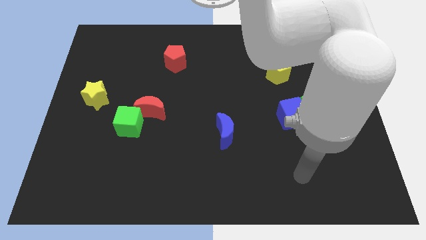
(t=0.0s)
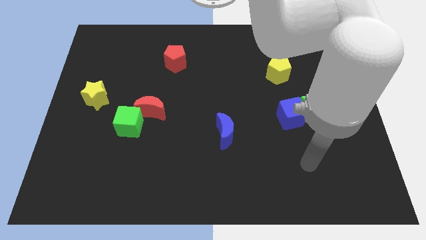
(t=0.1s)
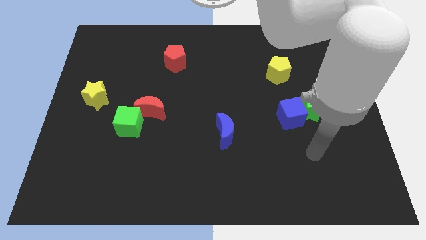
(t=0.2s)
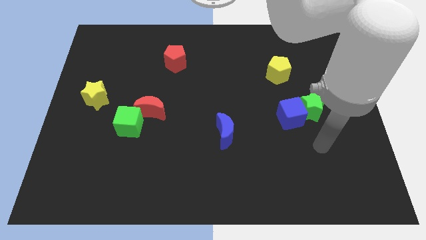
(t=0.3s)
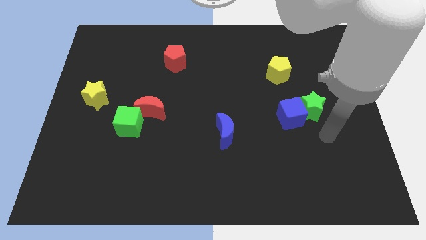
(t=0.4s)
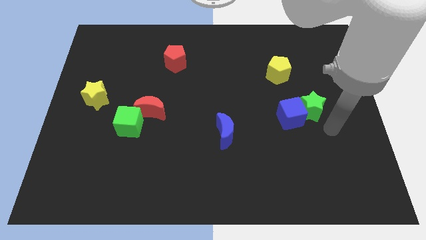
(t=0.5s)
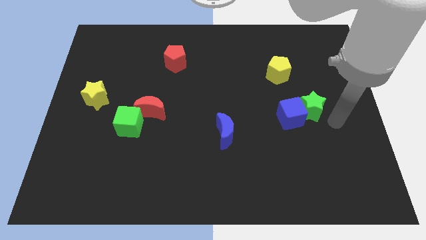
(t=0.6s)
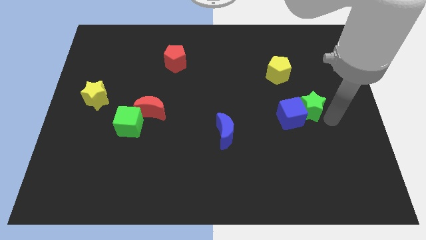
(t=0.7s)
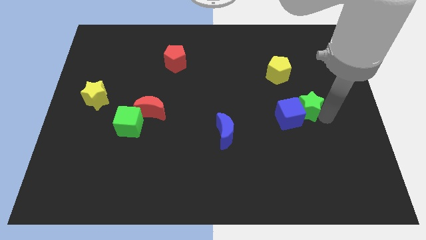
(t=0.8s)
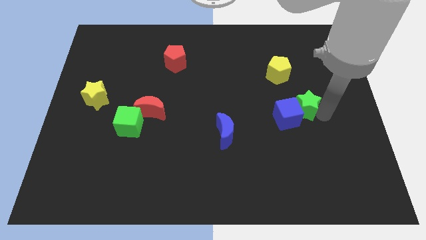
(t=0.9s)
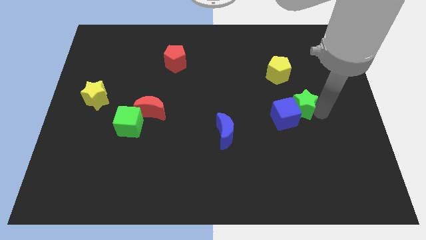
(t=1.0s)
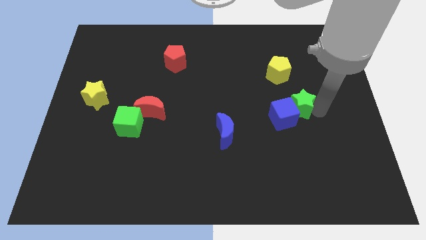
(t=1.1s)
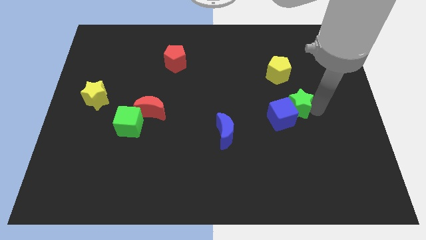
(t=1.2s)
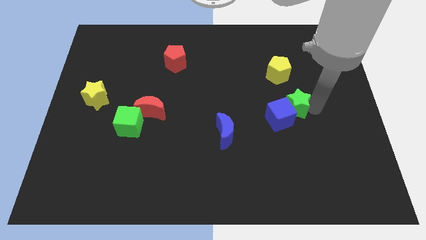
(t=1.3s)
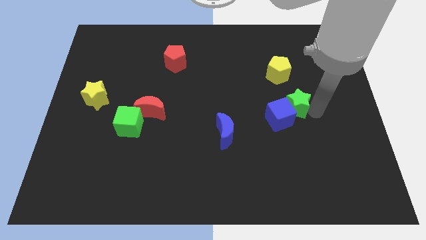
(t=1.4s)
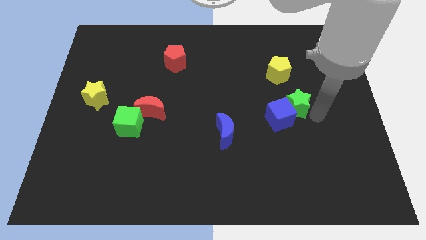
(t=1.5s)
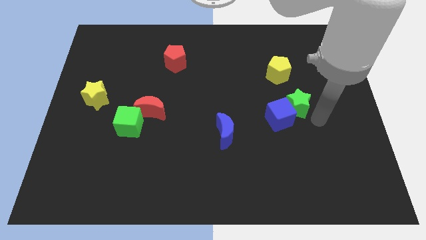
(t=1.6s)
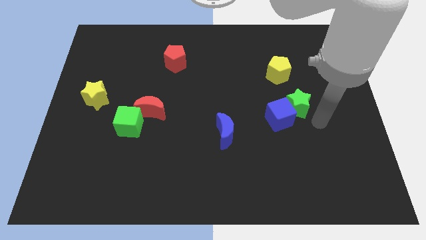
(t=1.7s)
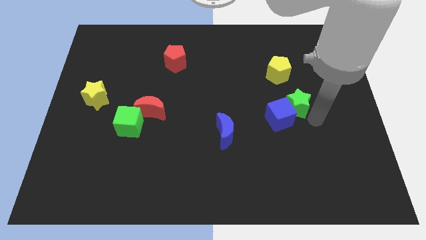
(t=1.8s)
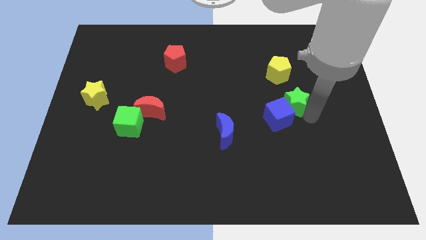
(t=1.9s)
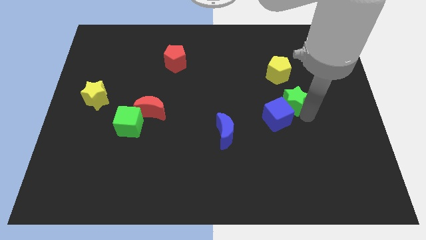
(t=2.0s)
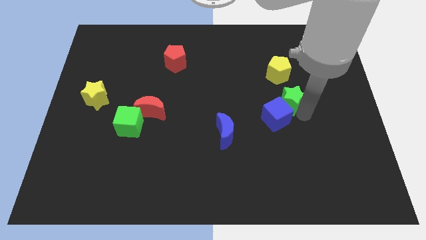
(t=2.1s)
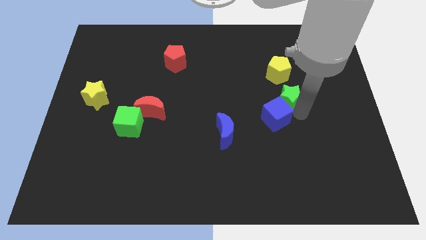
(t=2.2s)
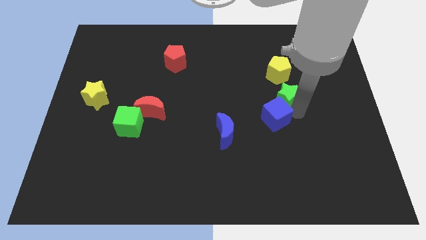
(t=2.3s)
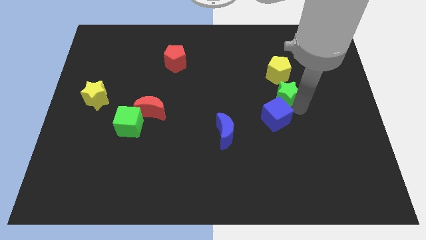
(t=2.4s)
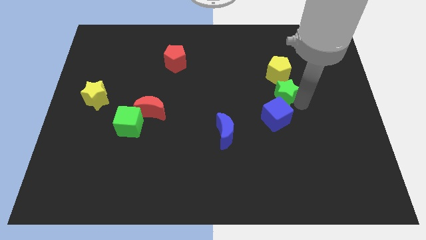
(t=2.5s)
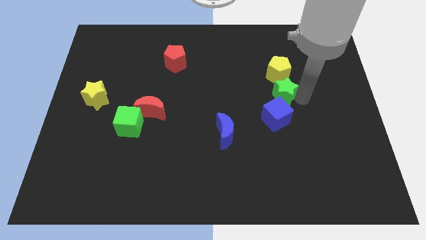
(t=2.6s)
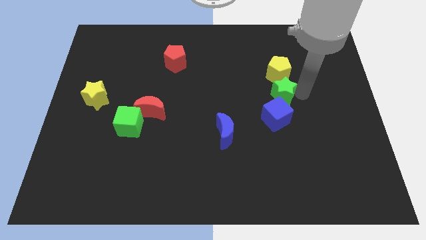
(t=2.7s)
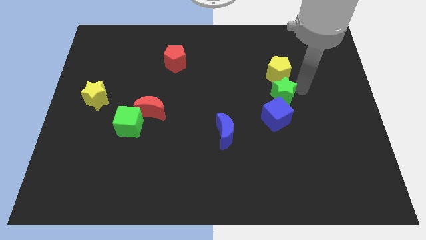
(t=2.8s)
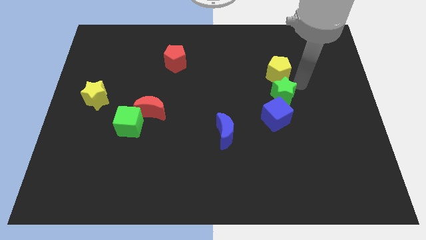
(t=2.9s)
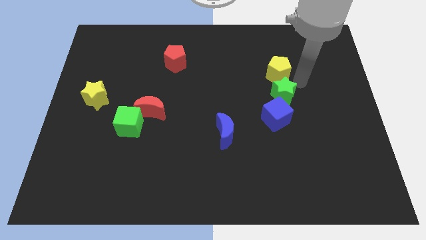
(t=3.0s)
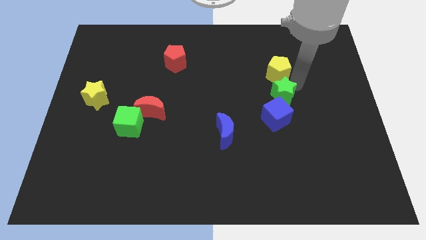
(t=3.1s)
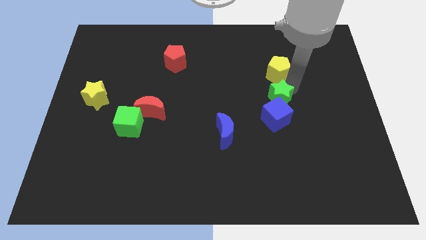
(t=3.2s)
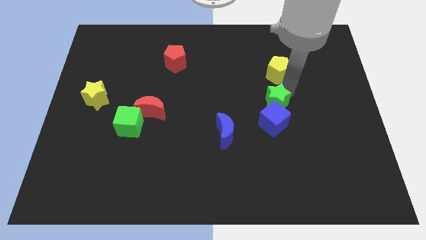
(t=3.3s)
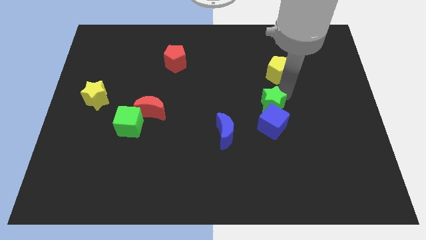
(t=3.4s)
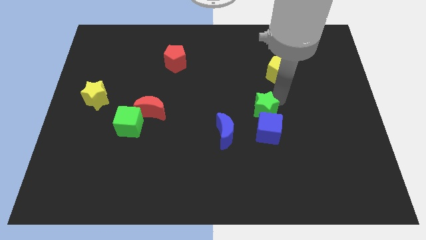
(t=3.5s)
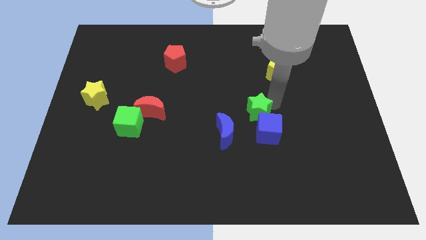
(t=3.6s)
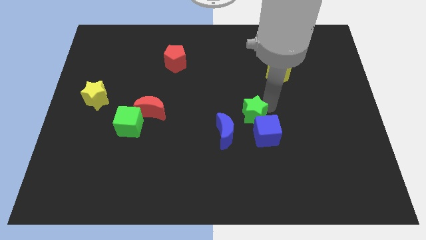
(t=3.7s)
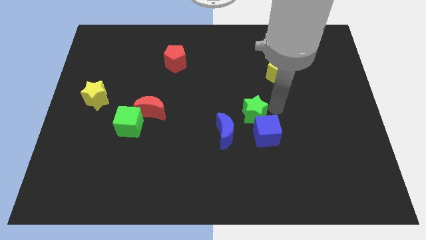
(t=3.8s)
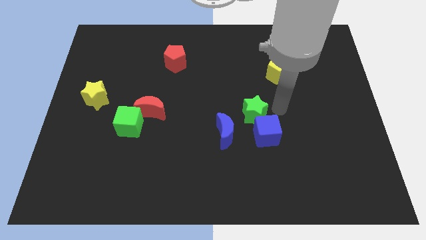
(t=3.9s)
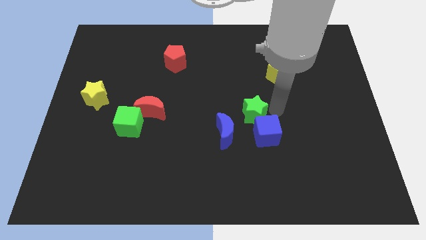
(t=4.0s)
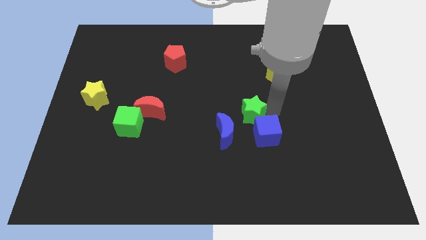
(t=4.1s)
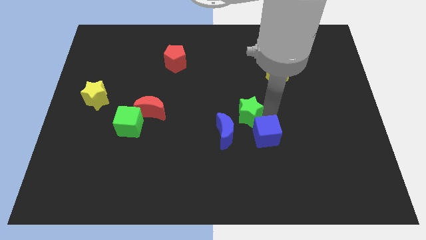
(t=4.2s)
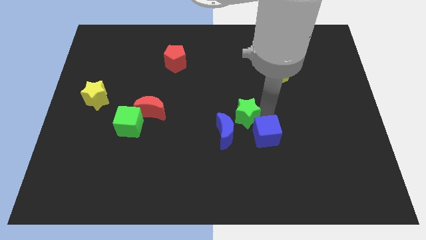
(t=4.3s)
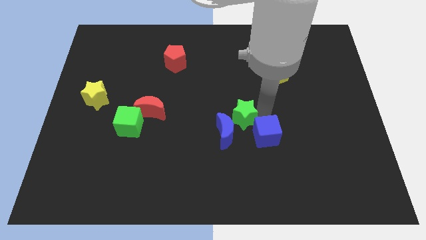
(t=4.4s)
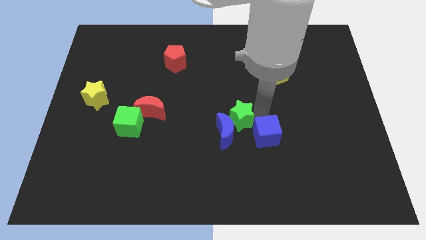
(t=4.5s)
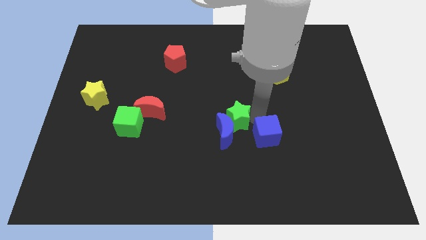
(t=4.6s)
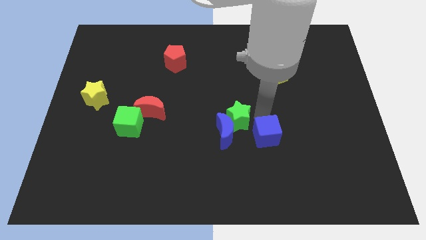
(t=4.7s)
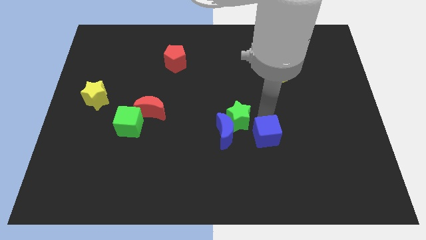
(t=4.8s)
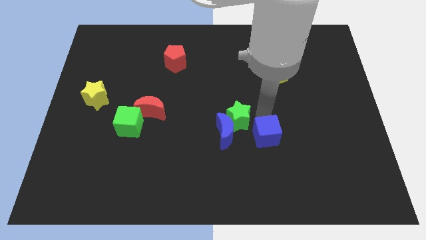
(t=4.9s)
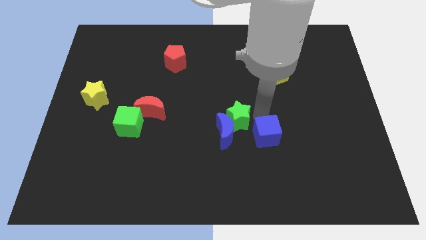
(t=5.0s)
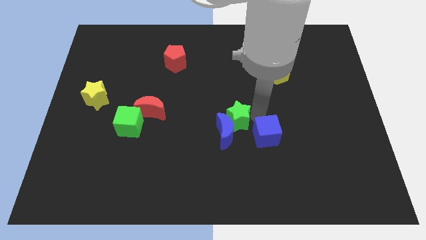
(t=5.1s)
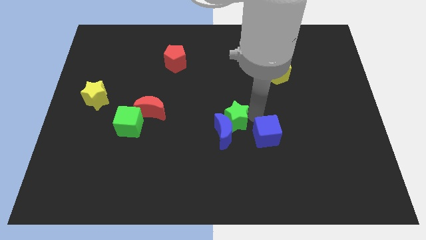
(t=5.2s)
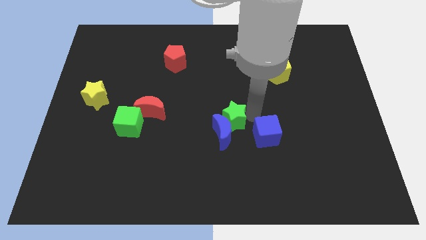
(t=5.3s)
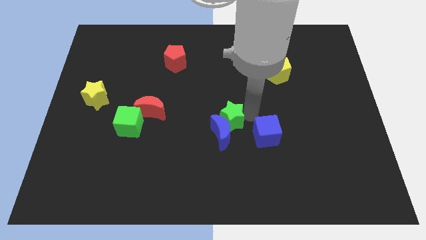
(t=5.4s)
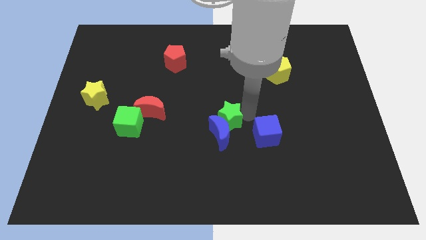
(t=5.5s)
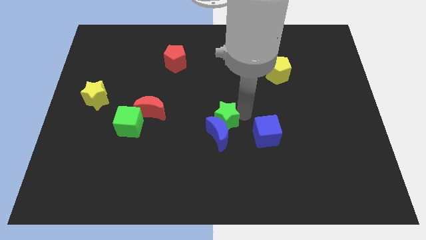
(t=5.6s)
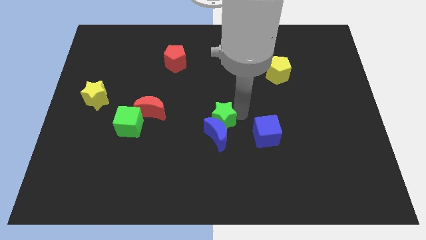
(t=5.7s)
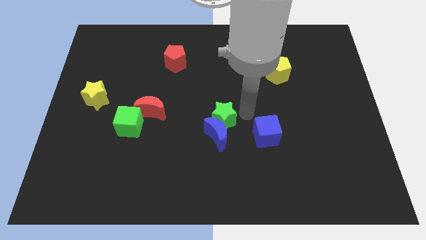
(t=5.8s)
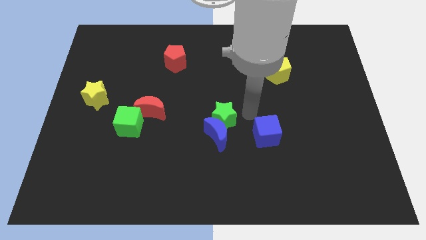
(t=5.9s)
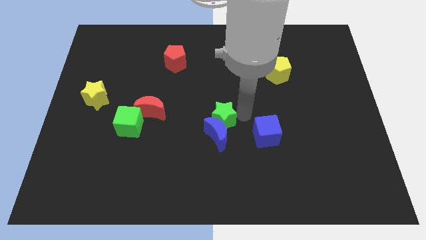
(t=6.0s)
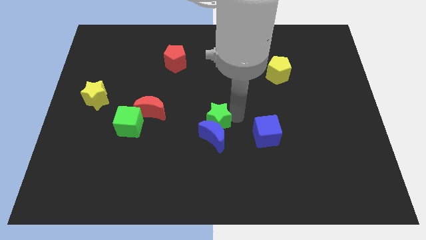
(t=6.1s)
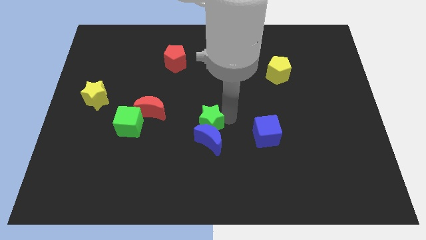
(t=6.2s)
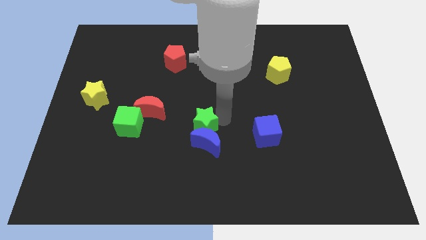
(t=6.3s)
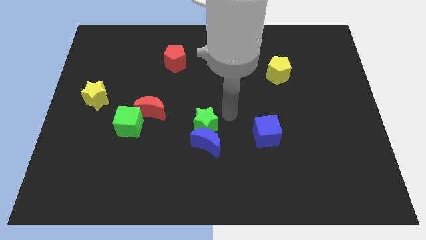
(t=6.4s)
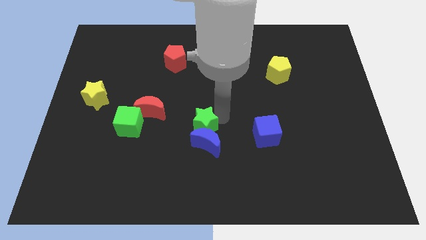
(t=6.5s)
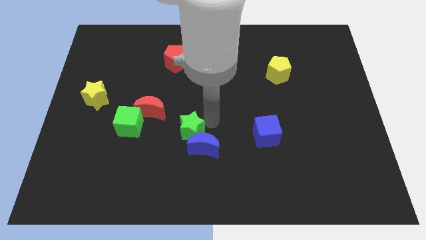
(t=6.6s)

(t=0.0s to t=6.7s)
slide the green star just left of the blue moon

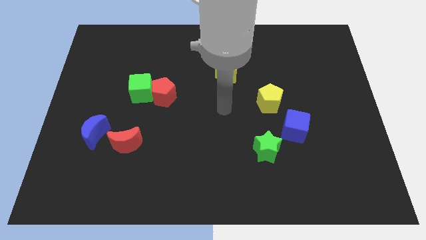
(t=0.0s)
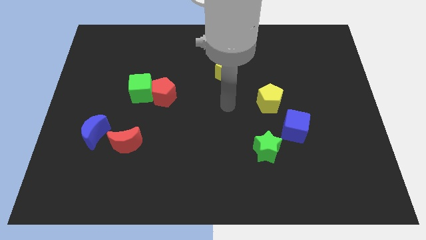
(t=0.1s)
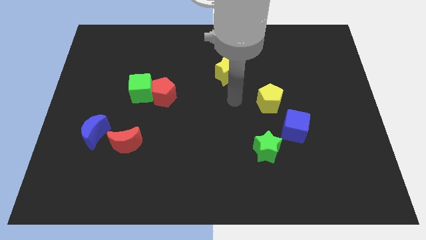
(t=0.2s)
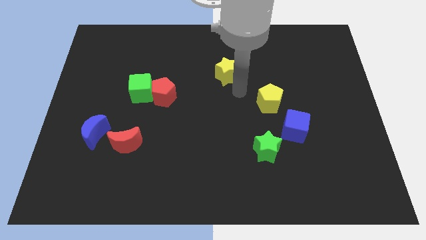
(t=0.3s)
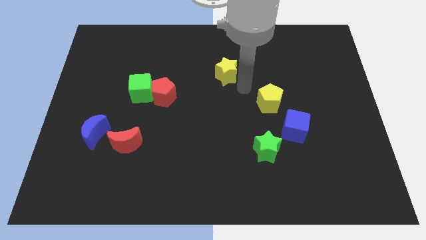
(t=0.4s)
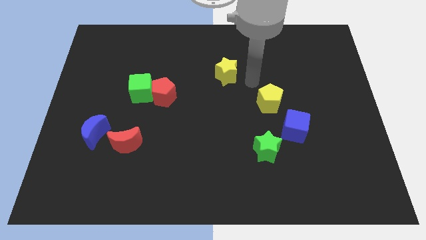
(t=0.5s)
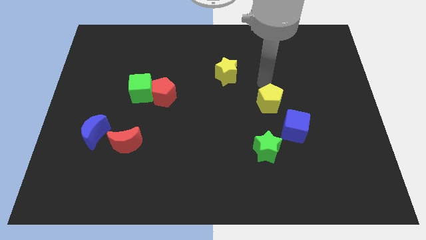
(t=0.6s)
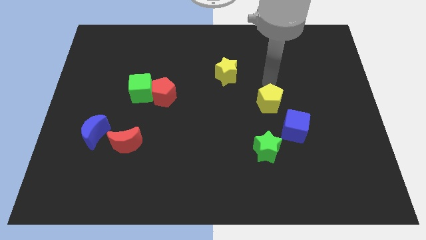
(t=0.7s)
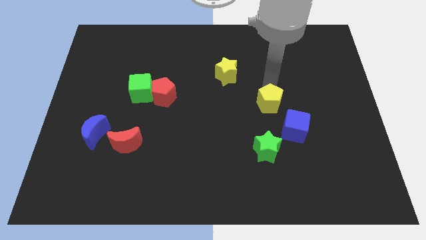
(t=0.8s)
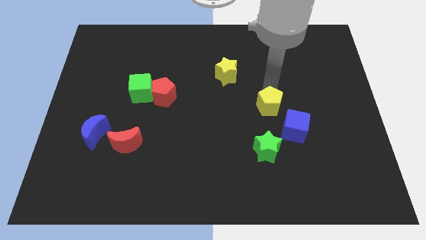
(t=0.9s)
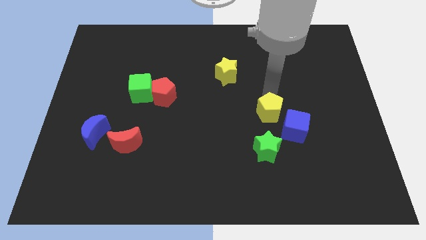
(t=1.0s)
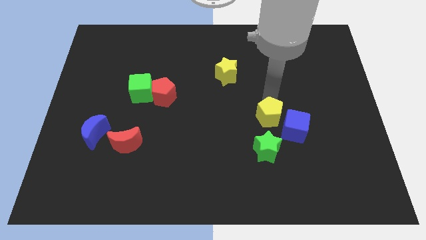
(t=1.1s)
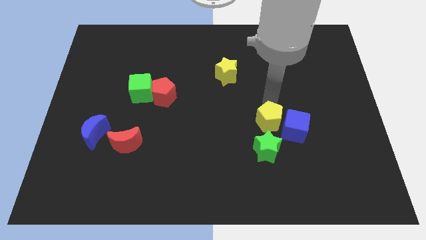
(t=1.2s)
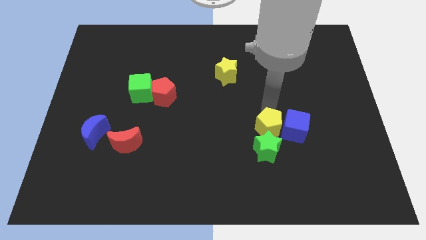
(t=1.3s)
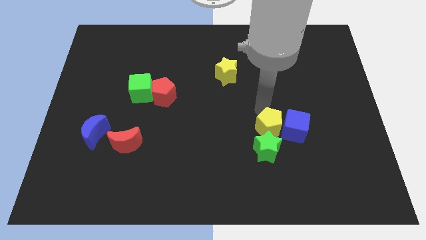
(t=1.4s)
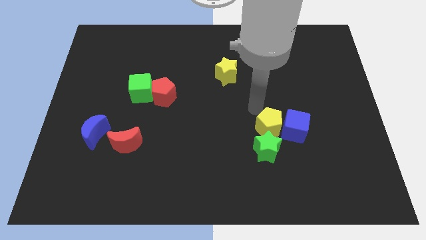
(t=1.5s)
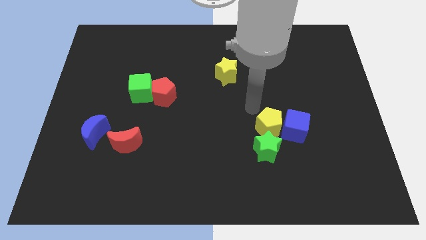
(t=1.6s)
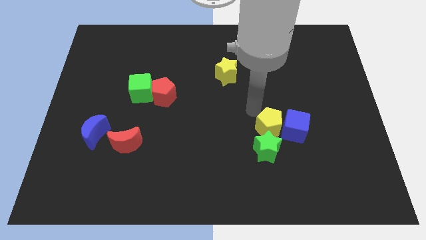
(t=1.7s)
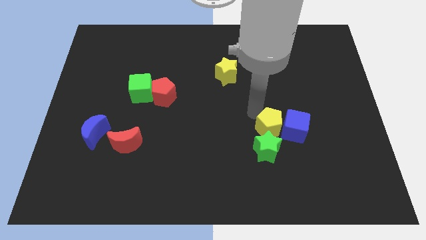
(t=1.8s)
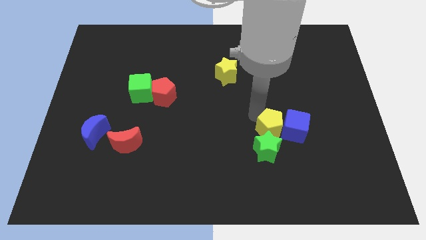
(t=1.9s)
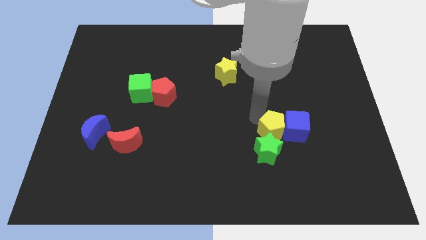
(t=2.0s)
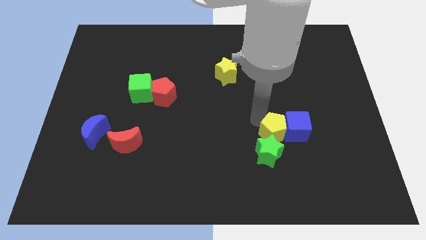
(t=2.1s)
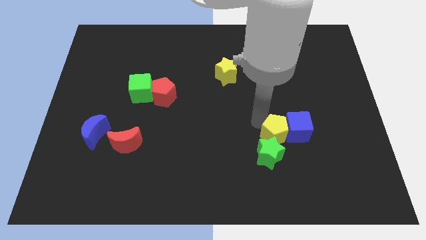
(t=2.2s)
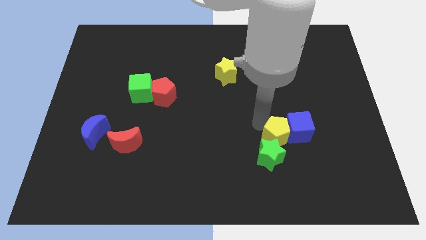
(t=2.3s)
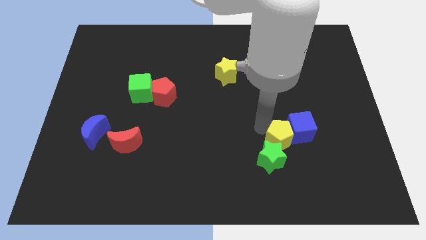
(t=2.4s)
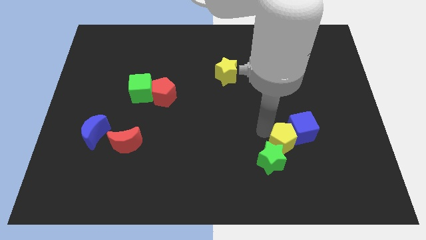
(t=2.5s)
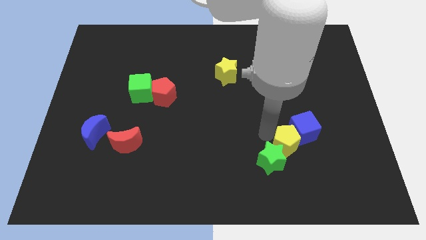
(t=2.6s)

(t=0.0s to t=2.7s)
put the yellow pentagon below the blue cube
